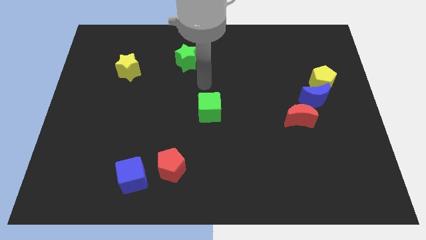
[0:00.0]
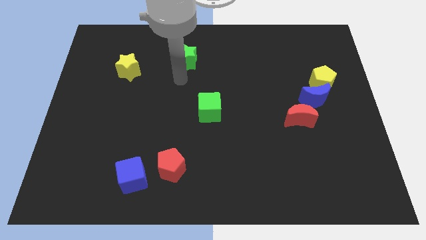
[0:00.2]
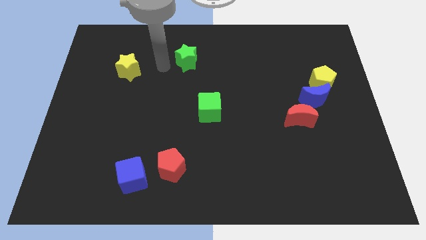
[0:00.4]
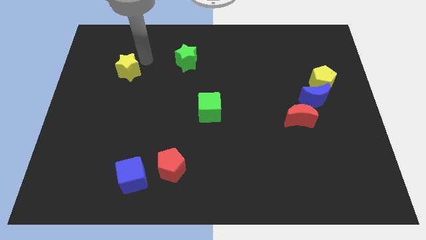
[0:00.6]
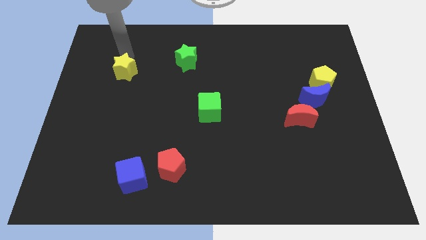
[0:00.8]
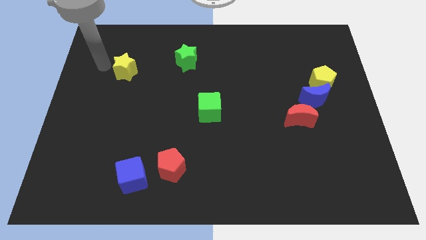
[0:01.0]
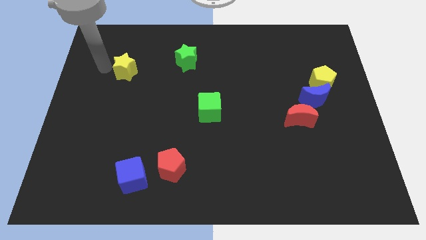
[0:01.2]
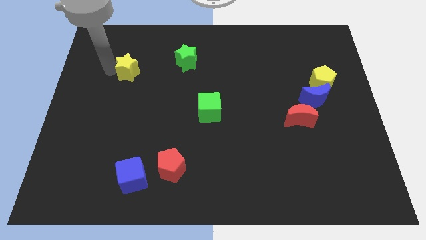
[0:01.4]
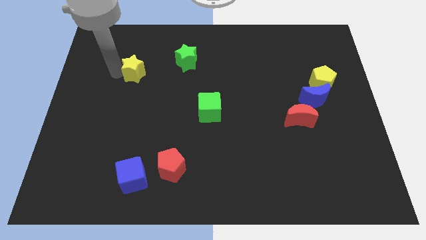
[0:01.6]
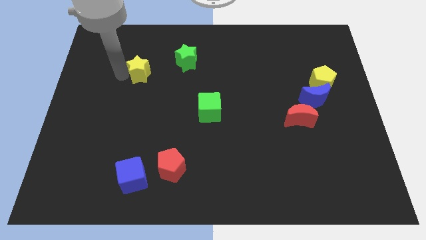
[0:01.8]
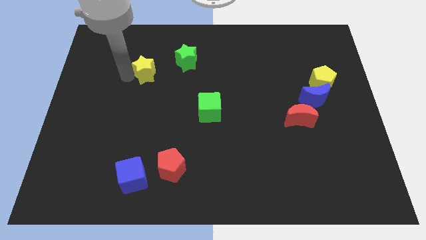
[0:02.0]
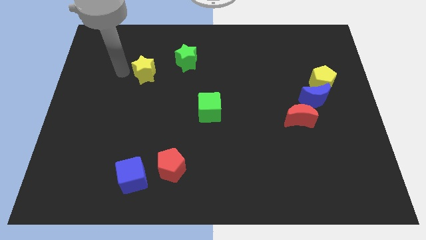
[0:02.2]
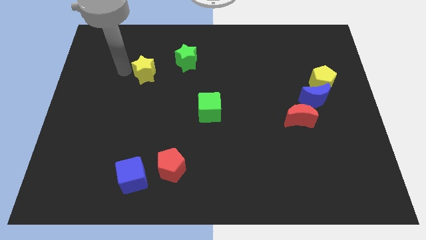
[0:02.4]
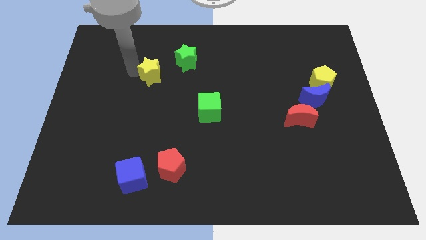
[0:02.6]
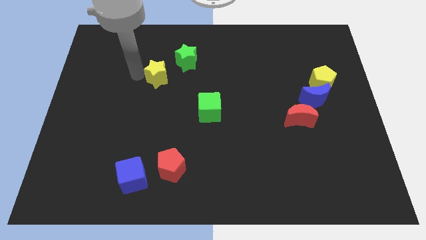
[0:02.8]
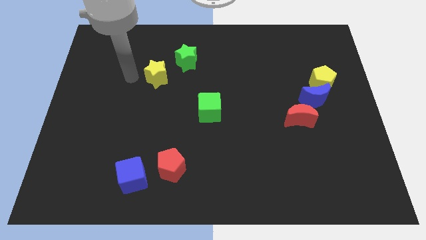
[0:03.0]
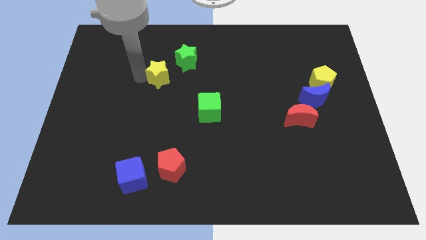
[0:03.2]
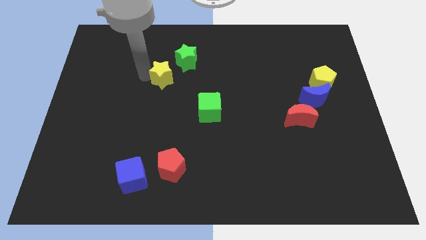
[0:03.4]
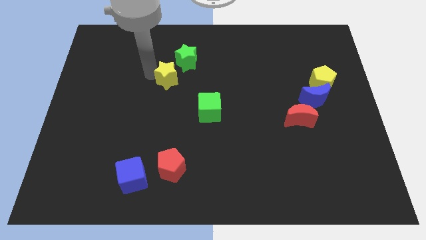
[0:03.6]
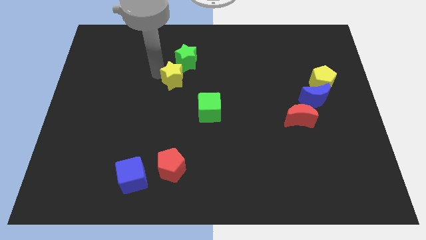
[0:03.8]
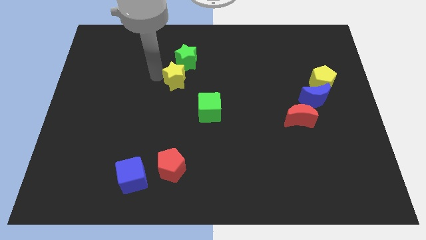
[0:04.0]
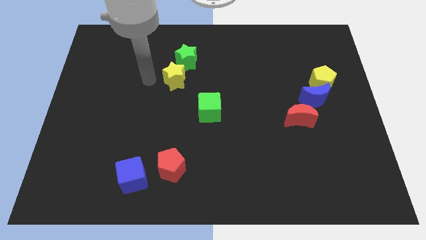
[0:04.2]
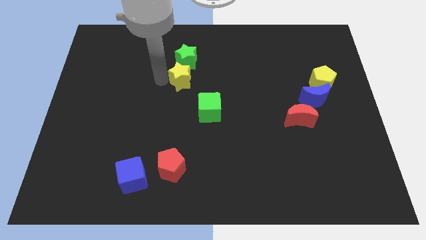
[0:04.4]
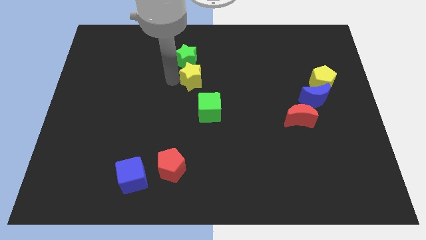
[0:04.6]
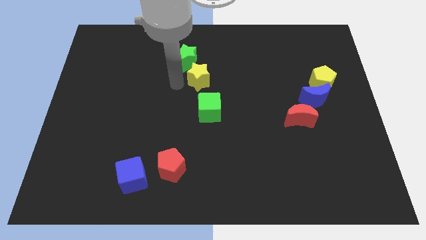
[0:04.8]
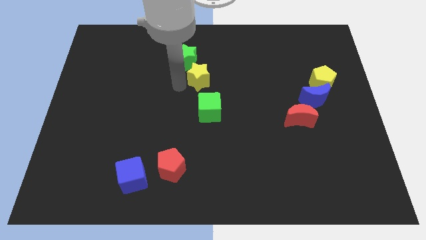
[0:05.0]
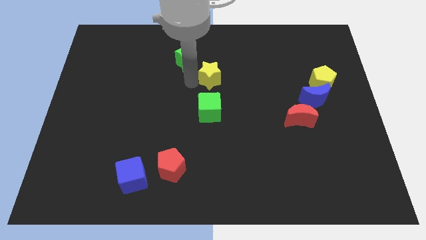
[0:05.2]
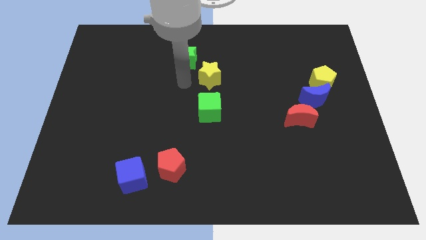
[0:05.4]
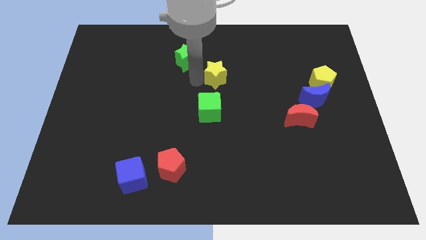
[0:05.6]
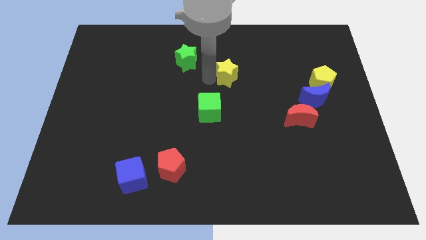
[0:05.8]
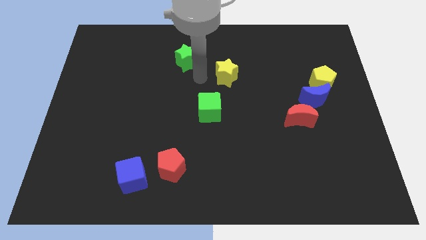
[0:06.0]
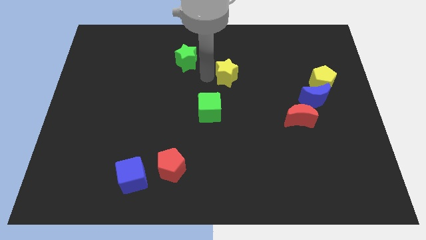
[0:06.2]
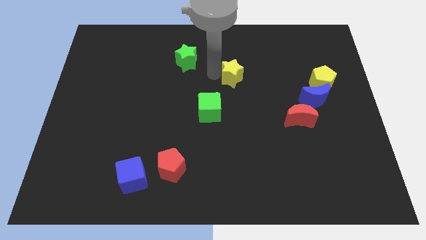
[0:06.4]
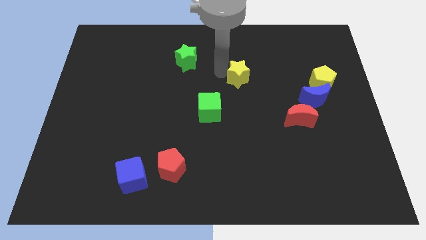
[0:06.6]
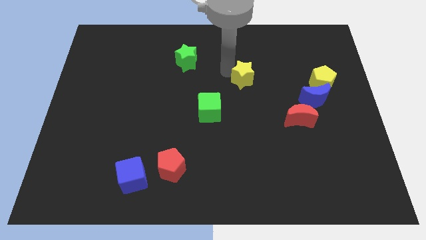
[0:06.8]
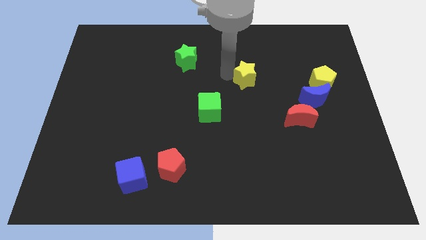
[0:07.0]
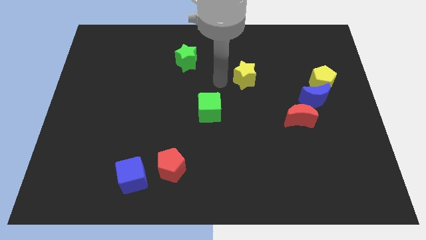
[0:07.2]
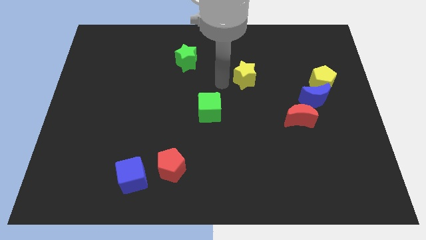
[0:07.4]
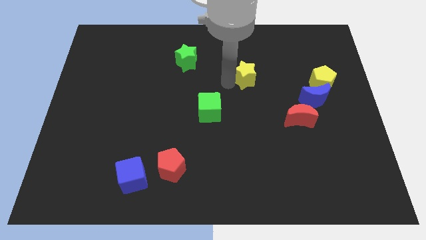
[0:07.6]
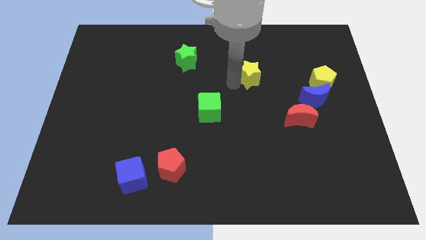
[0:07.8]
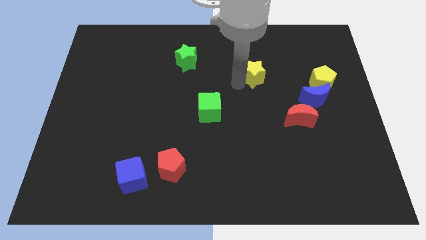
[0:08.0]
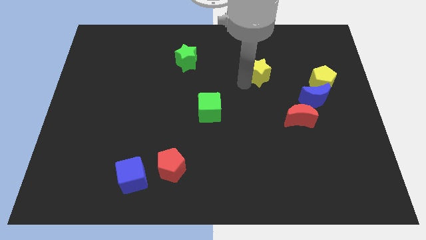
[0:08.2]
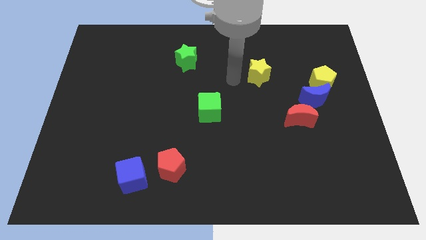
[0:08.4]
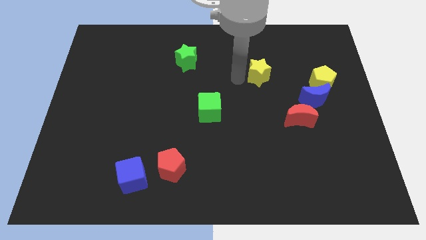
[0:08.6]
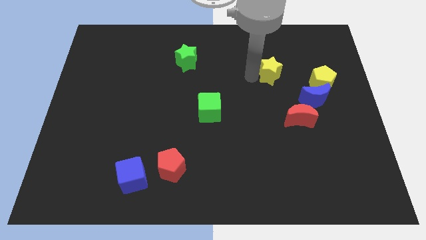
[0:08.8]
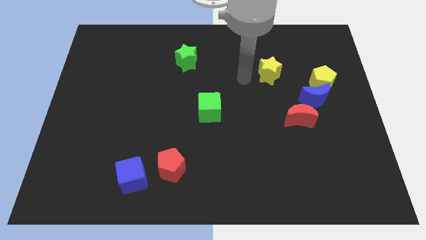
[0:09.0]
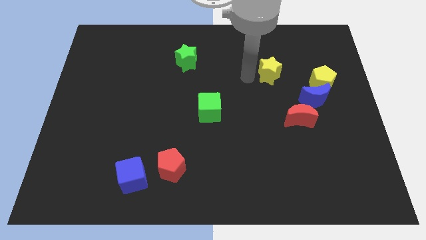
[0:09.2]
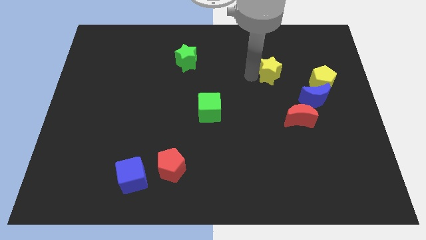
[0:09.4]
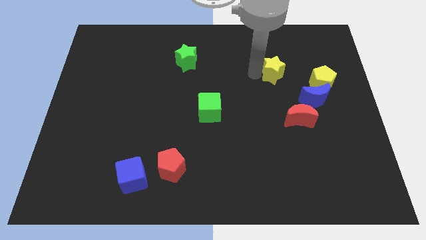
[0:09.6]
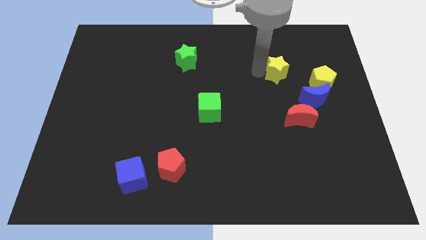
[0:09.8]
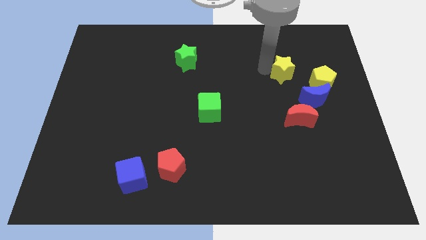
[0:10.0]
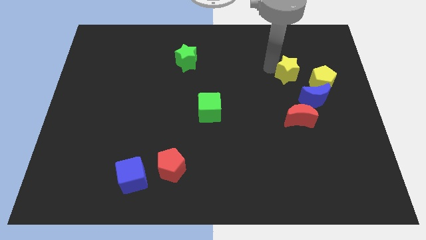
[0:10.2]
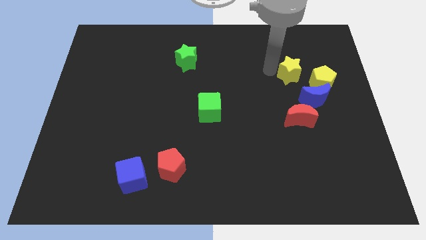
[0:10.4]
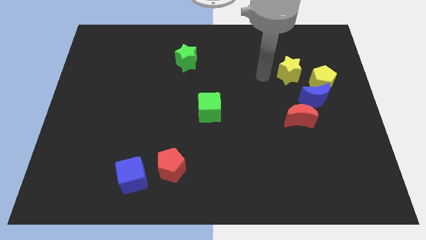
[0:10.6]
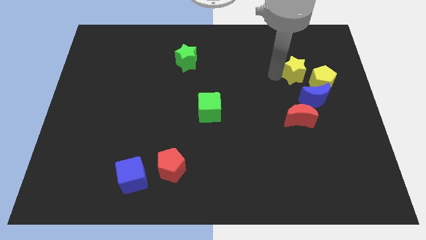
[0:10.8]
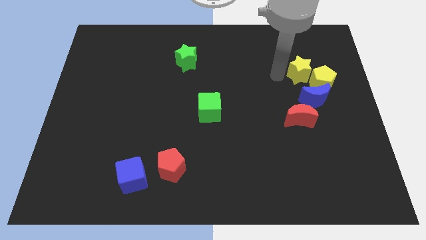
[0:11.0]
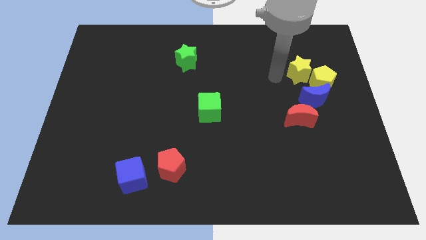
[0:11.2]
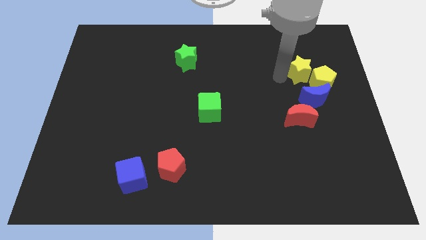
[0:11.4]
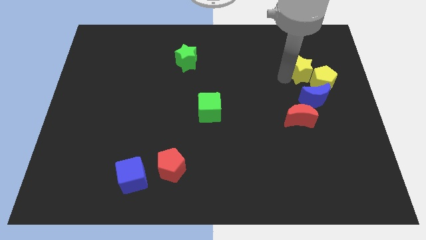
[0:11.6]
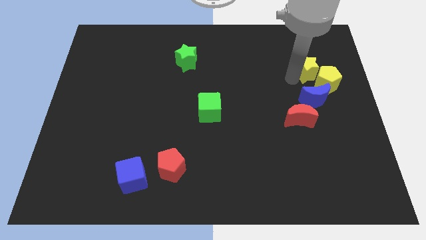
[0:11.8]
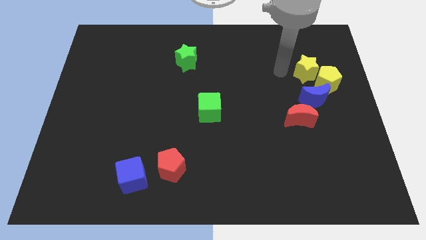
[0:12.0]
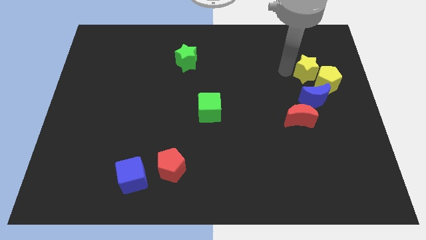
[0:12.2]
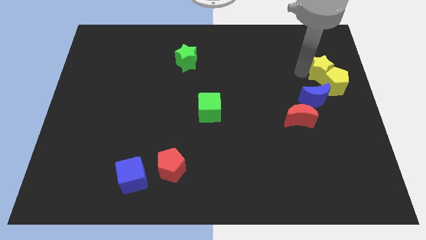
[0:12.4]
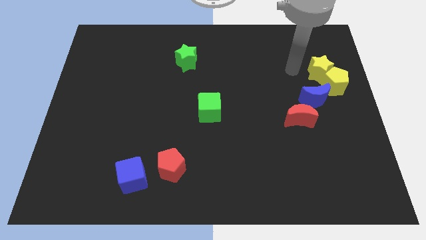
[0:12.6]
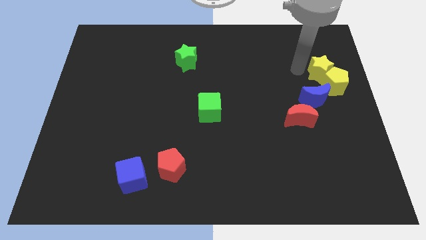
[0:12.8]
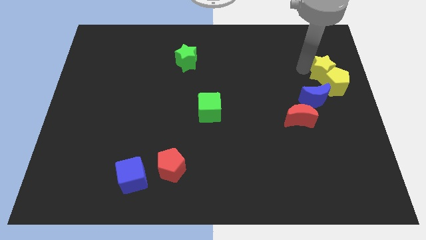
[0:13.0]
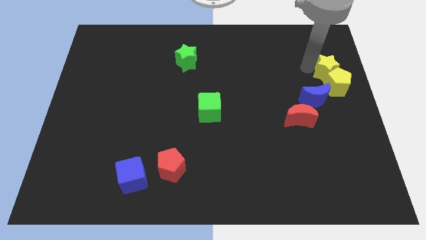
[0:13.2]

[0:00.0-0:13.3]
move the yellow star to the right side of the board
